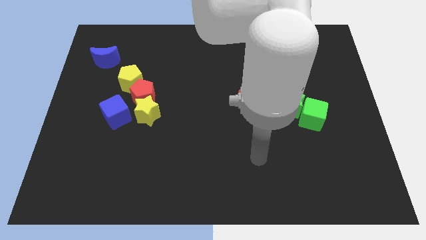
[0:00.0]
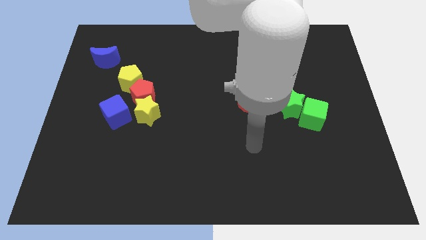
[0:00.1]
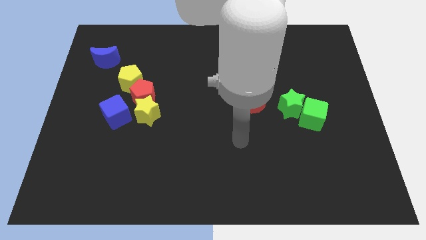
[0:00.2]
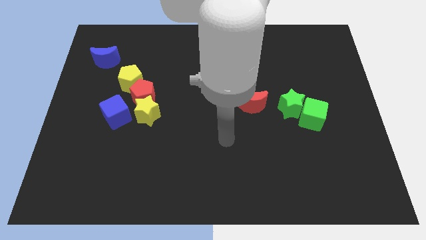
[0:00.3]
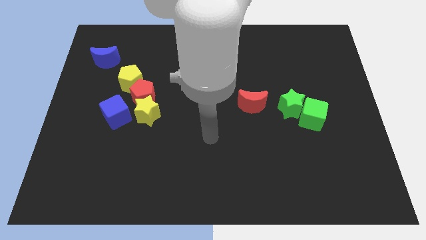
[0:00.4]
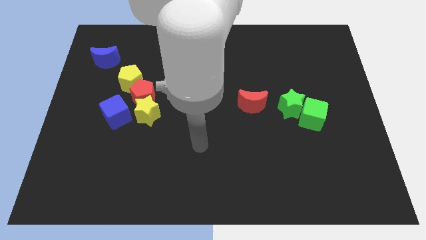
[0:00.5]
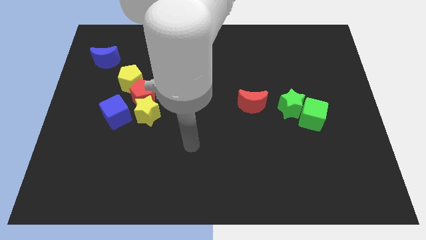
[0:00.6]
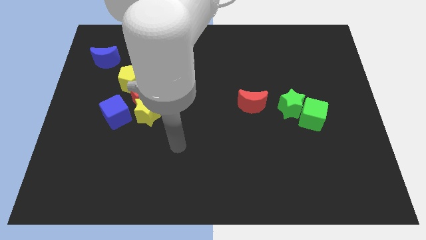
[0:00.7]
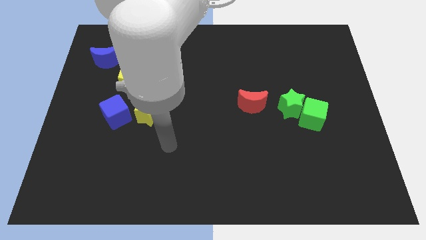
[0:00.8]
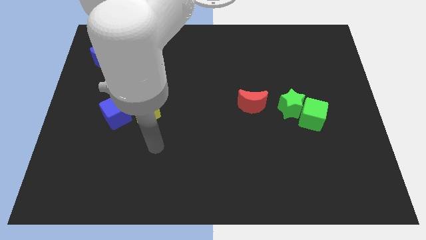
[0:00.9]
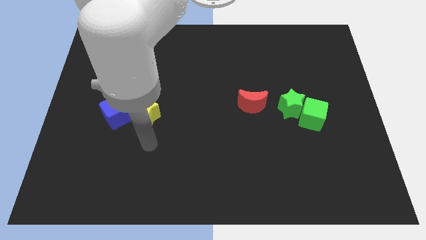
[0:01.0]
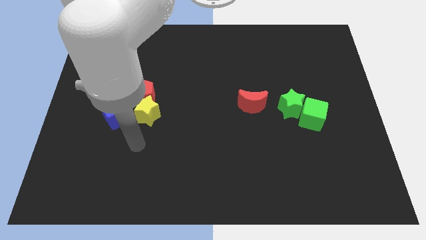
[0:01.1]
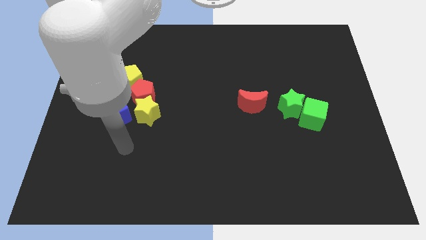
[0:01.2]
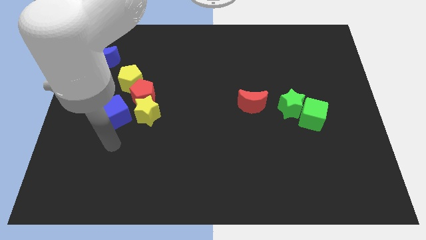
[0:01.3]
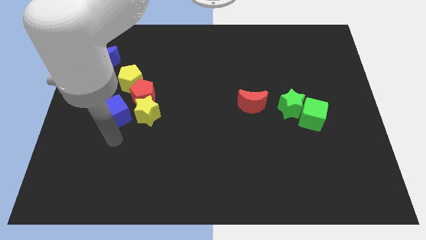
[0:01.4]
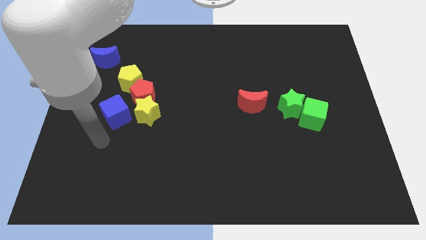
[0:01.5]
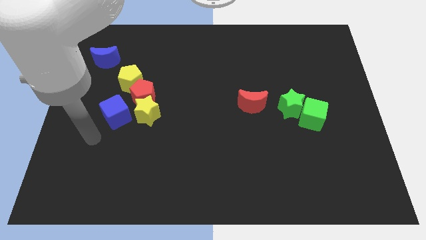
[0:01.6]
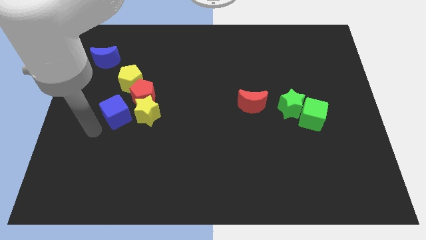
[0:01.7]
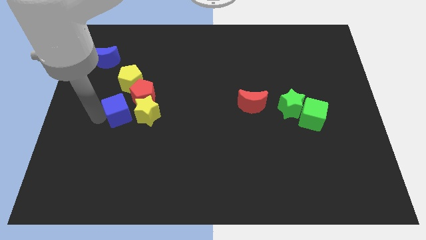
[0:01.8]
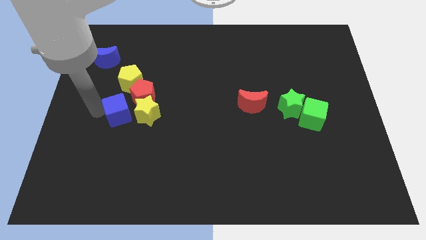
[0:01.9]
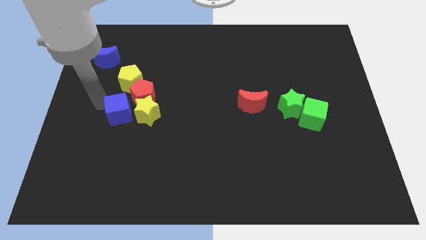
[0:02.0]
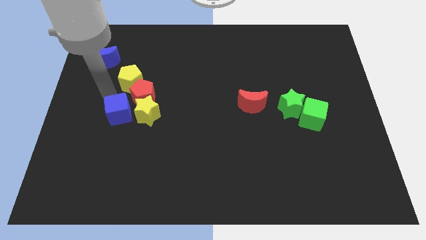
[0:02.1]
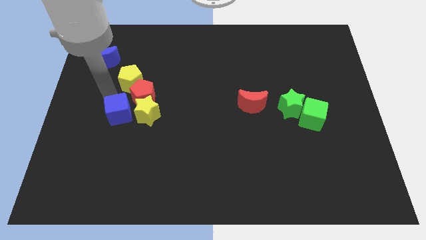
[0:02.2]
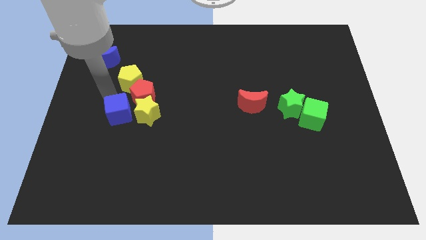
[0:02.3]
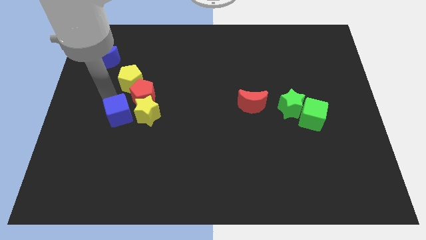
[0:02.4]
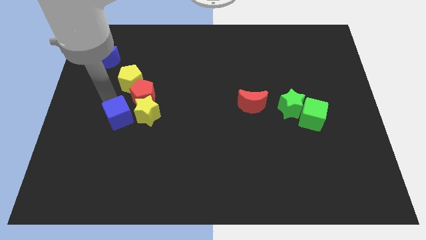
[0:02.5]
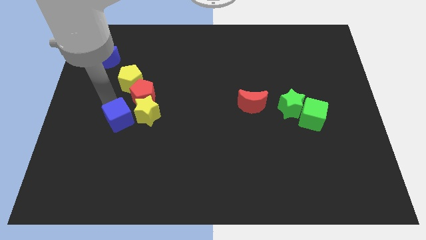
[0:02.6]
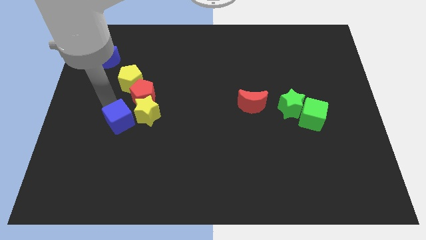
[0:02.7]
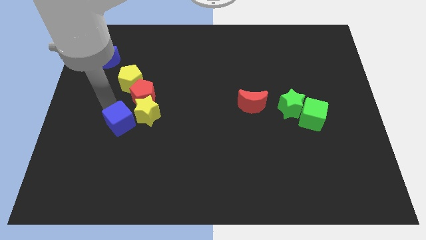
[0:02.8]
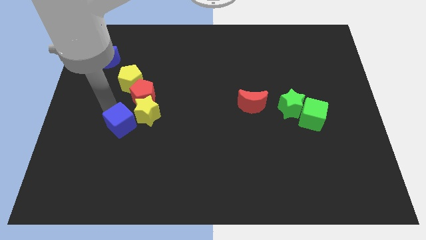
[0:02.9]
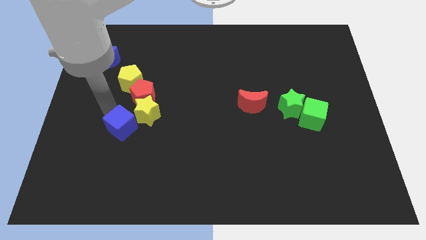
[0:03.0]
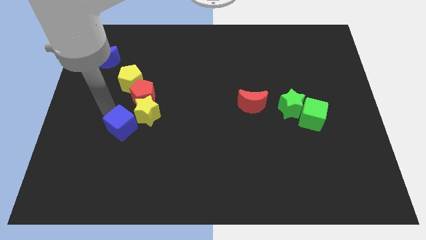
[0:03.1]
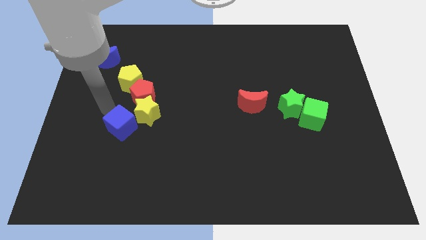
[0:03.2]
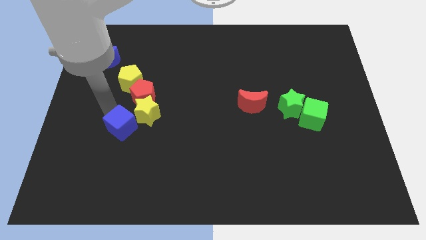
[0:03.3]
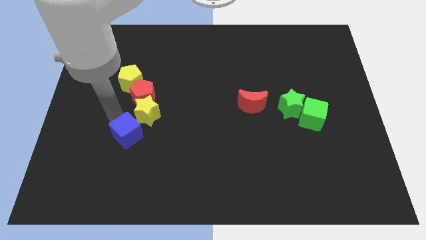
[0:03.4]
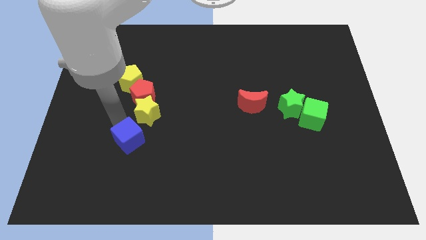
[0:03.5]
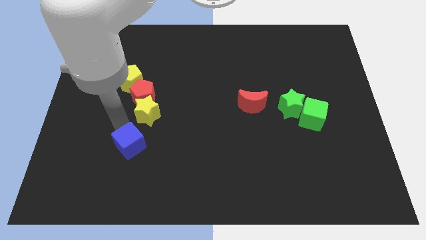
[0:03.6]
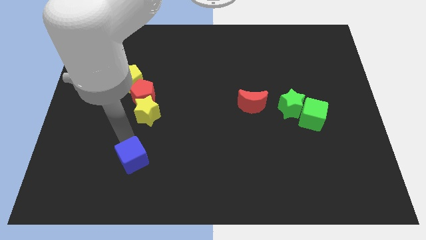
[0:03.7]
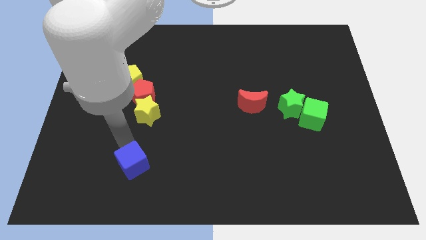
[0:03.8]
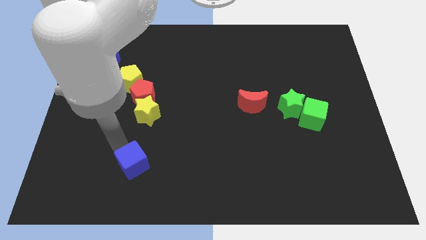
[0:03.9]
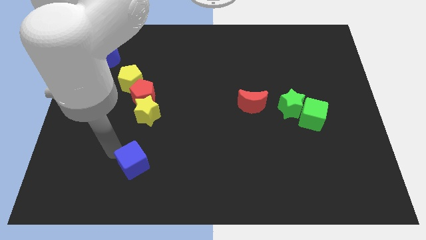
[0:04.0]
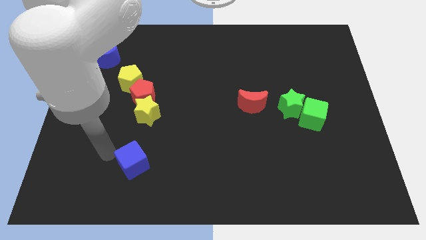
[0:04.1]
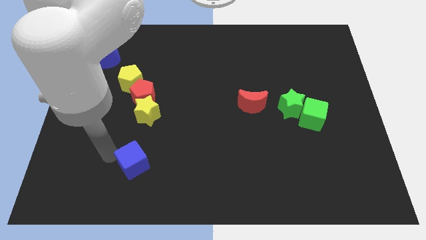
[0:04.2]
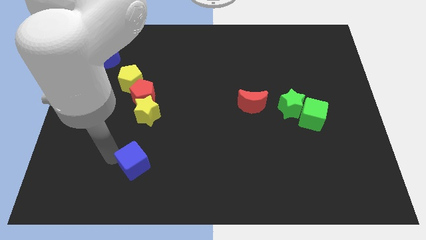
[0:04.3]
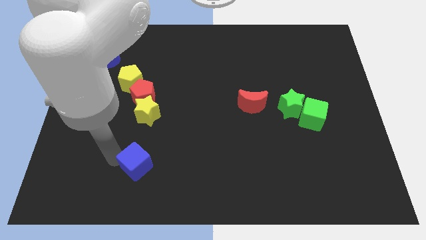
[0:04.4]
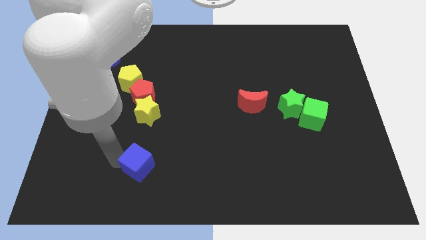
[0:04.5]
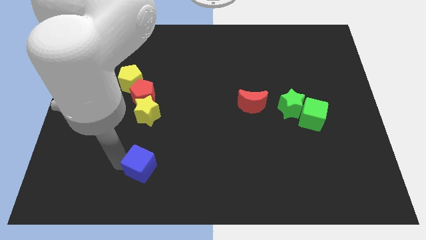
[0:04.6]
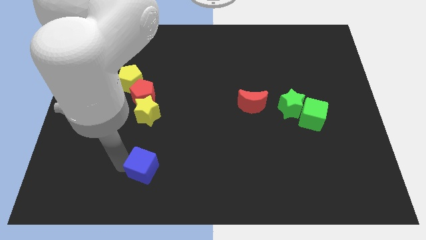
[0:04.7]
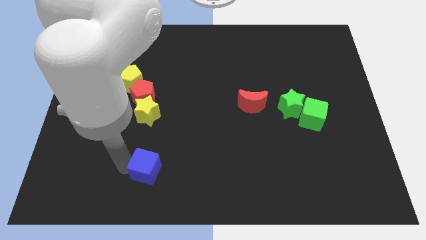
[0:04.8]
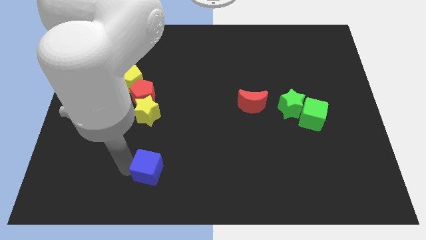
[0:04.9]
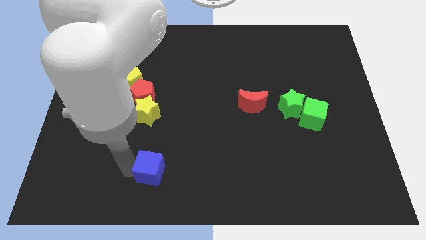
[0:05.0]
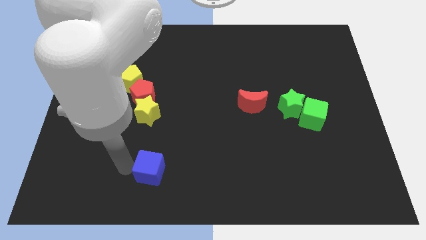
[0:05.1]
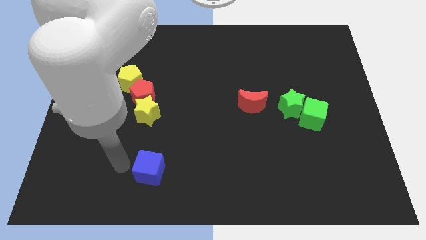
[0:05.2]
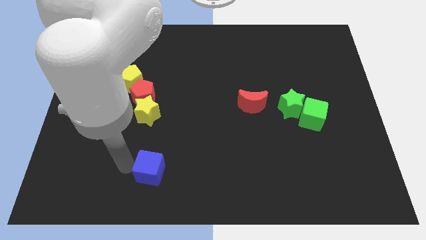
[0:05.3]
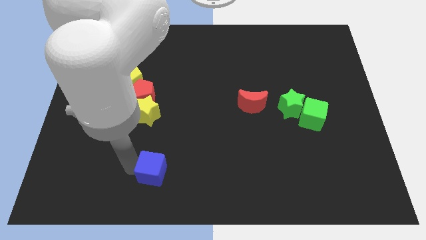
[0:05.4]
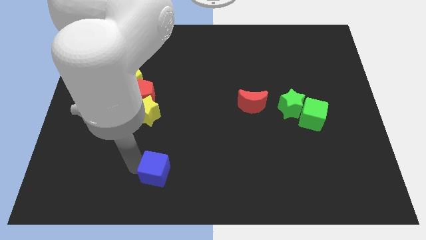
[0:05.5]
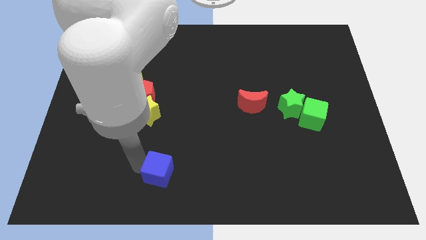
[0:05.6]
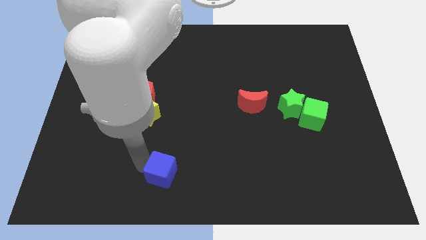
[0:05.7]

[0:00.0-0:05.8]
move the blue cube to the bottom side

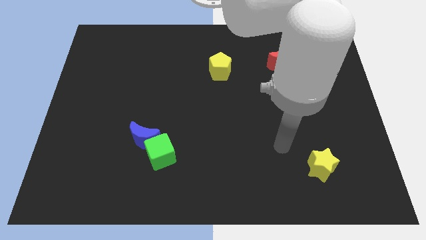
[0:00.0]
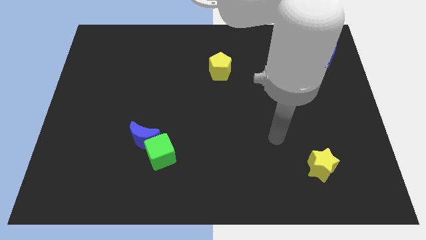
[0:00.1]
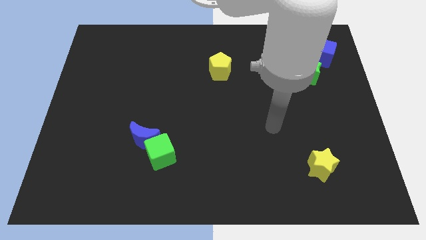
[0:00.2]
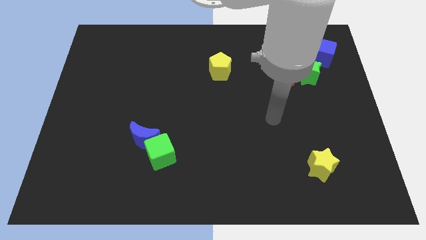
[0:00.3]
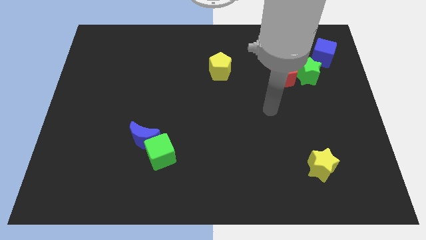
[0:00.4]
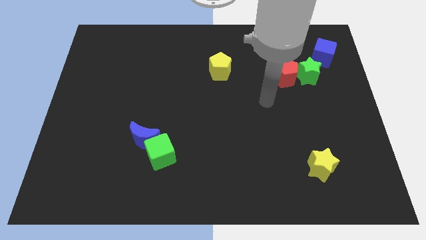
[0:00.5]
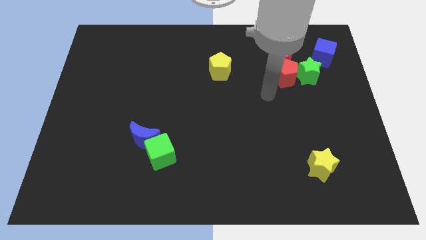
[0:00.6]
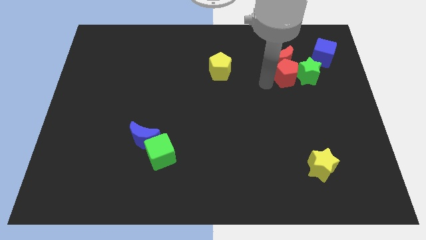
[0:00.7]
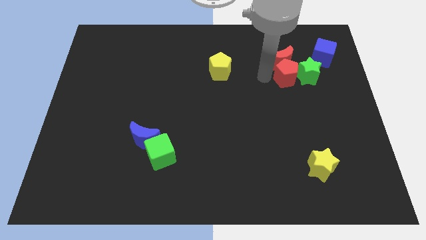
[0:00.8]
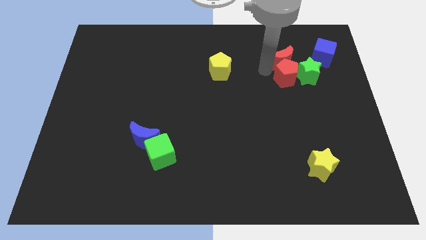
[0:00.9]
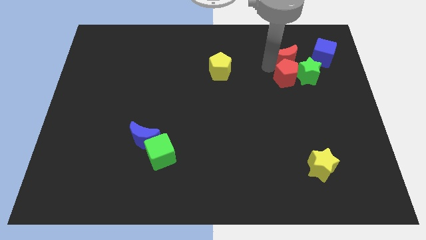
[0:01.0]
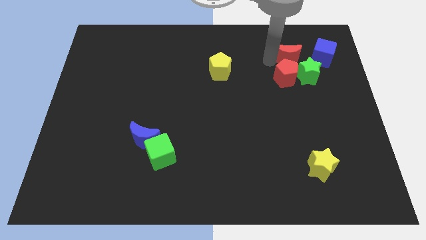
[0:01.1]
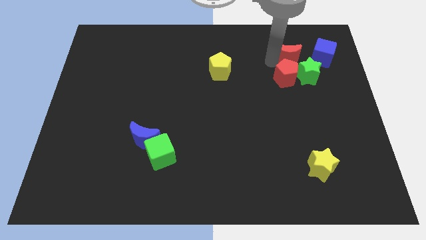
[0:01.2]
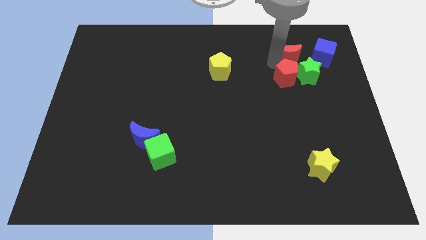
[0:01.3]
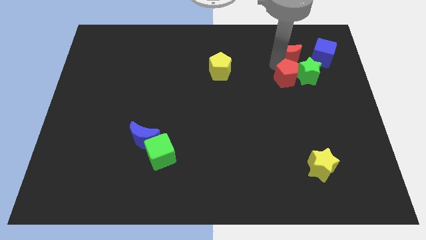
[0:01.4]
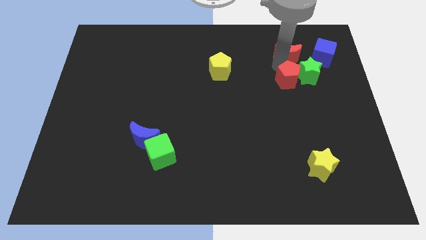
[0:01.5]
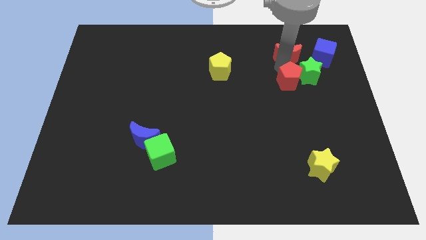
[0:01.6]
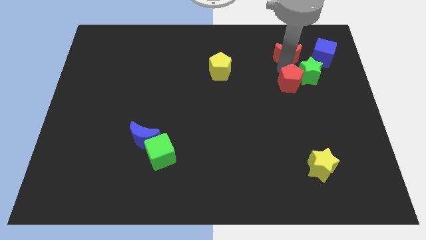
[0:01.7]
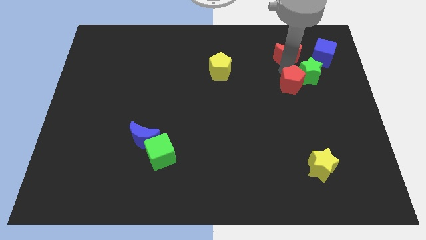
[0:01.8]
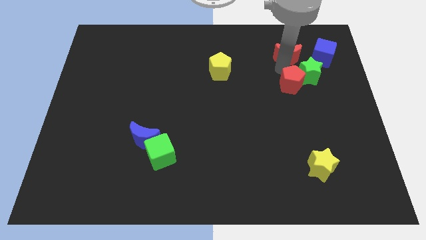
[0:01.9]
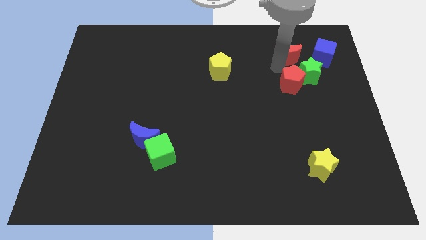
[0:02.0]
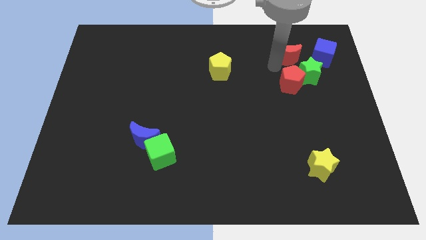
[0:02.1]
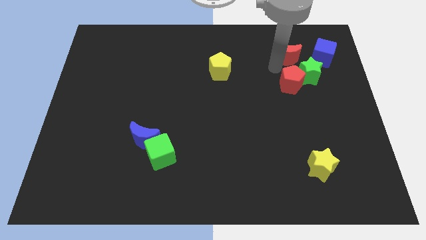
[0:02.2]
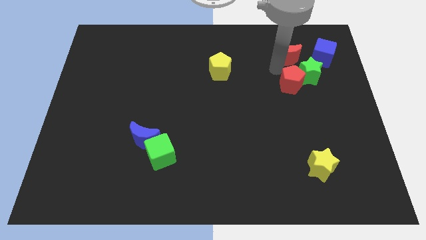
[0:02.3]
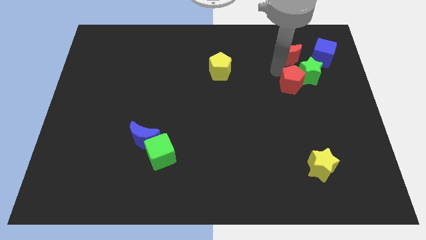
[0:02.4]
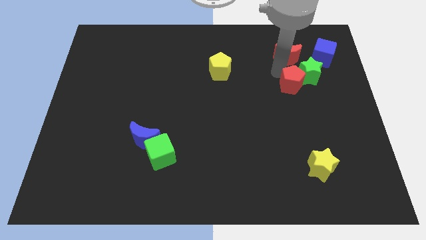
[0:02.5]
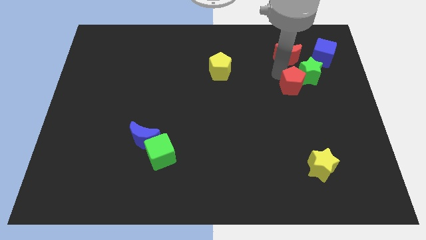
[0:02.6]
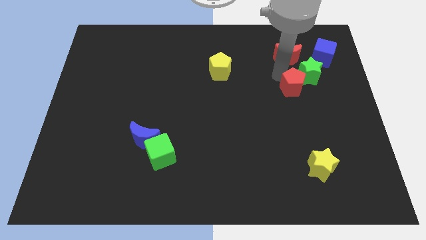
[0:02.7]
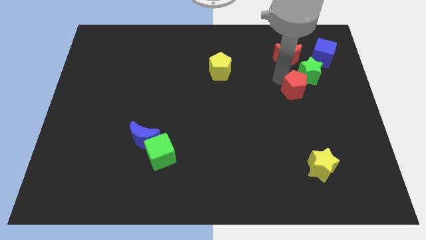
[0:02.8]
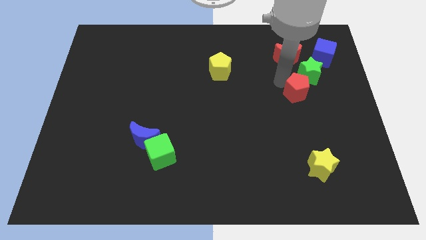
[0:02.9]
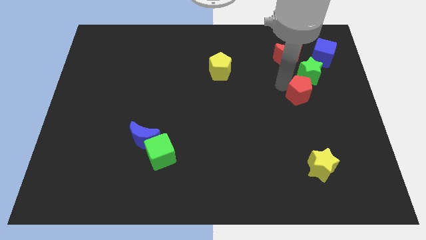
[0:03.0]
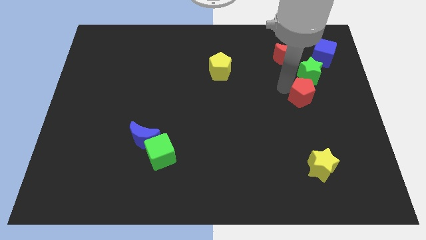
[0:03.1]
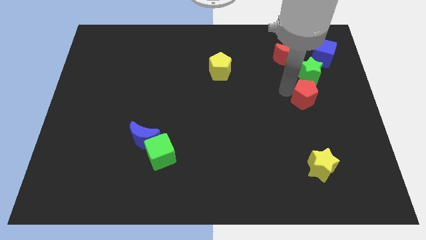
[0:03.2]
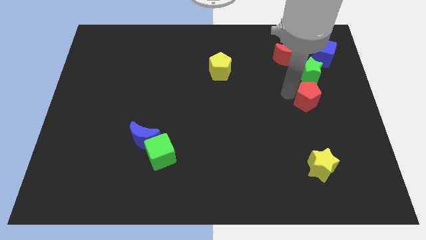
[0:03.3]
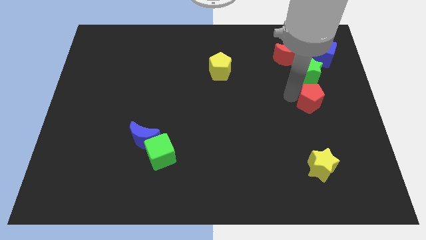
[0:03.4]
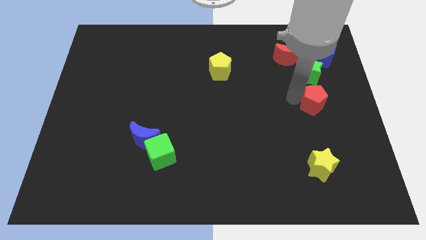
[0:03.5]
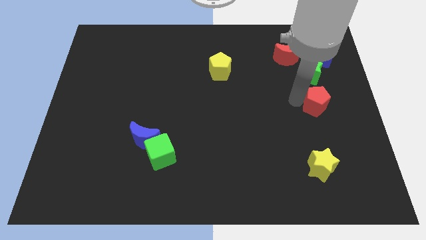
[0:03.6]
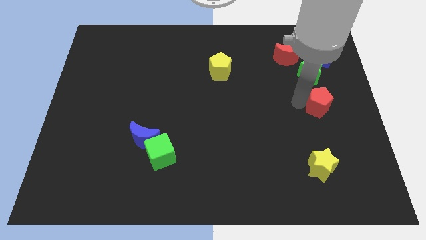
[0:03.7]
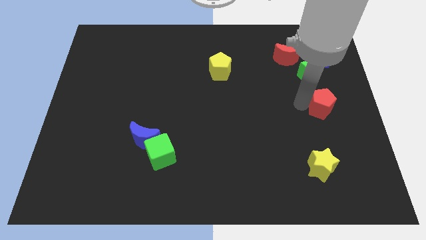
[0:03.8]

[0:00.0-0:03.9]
move the red pentagon to the center right
